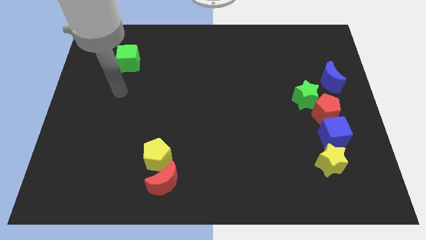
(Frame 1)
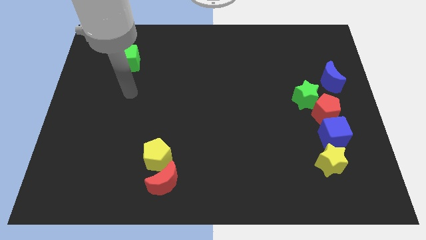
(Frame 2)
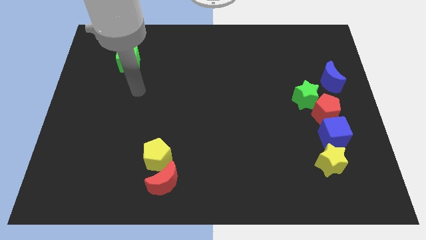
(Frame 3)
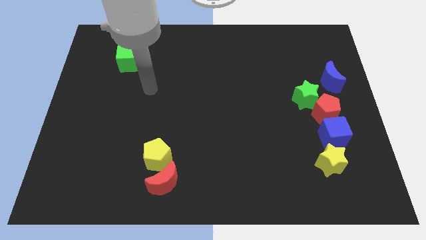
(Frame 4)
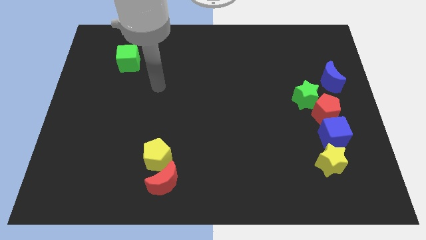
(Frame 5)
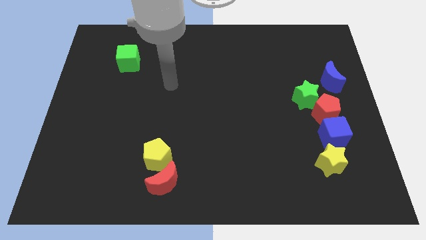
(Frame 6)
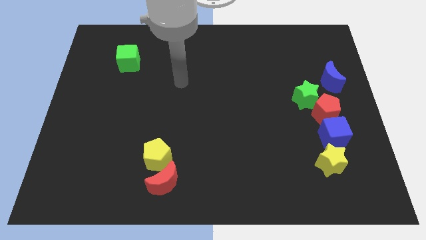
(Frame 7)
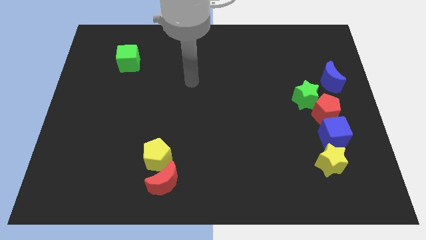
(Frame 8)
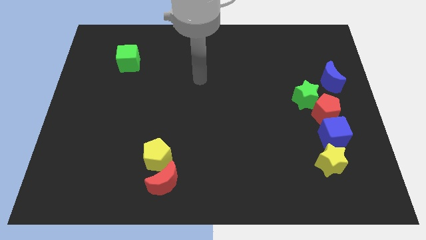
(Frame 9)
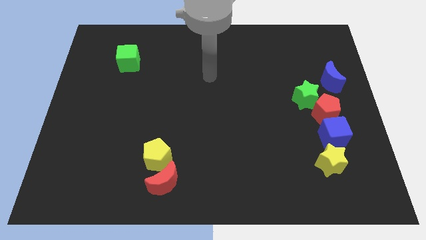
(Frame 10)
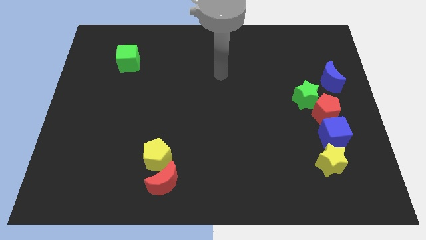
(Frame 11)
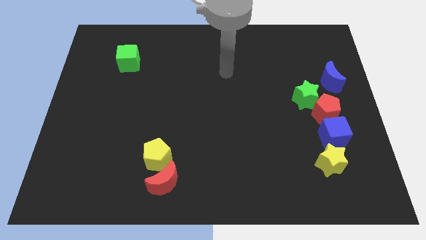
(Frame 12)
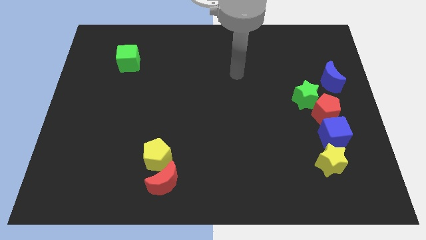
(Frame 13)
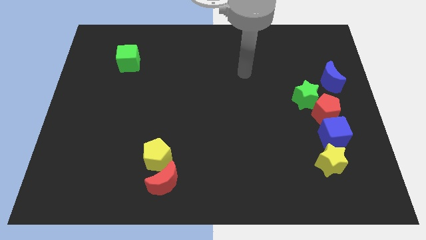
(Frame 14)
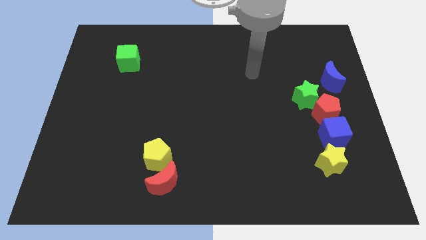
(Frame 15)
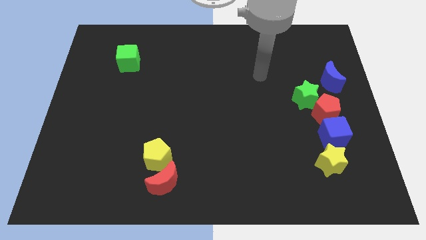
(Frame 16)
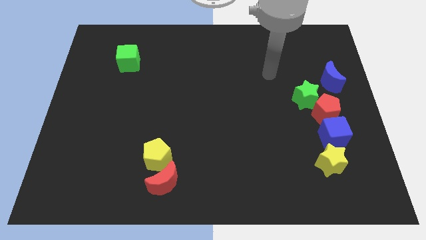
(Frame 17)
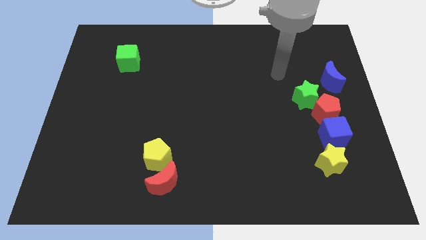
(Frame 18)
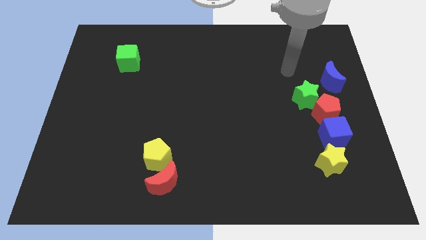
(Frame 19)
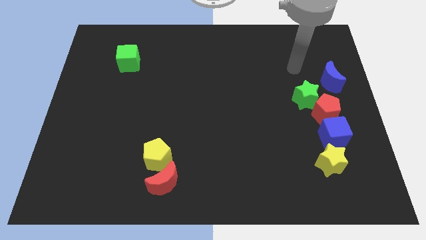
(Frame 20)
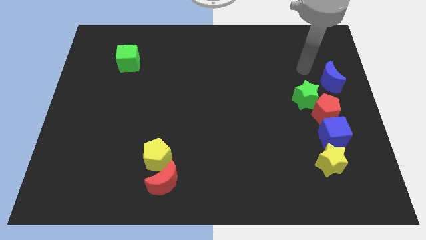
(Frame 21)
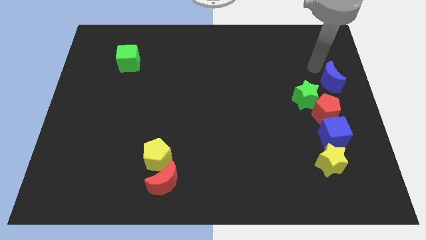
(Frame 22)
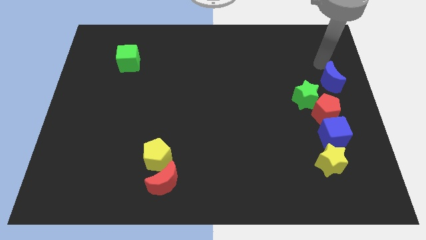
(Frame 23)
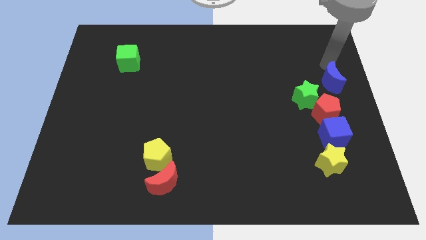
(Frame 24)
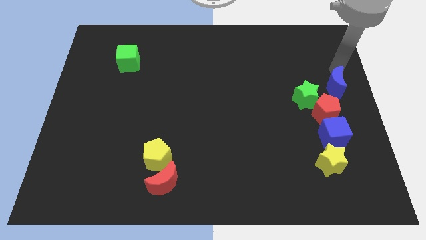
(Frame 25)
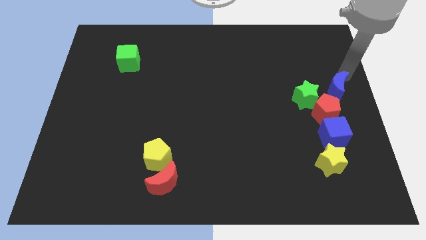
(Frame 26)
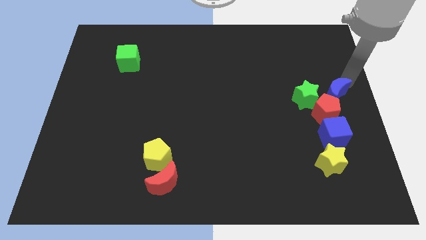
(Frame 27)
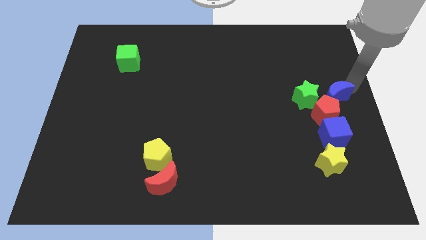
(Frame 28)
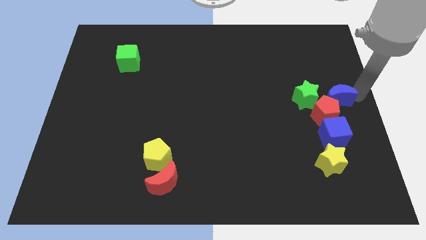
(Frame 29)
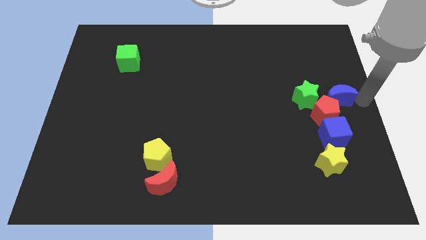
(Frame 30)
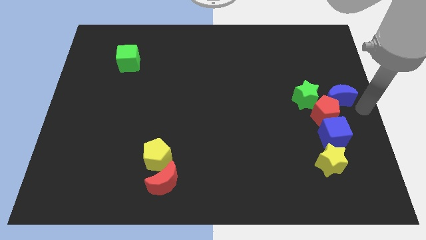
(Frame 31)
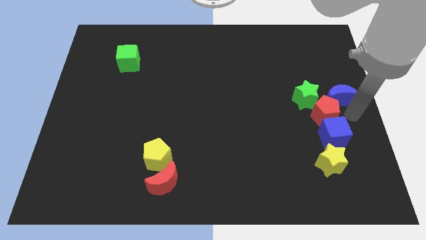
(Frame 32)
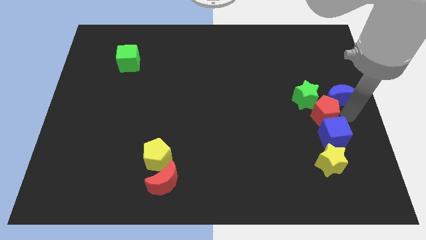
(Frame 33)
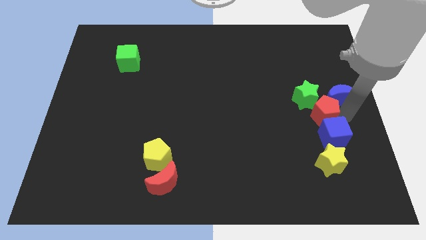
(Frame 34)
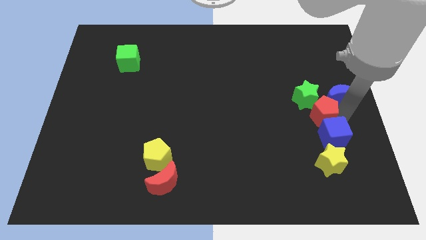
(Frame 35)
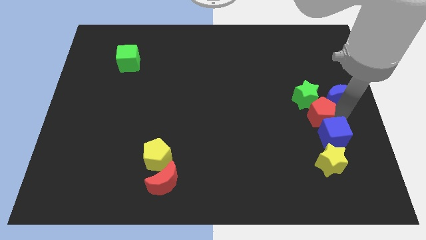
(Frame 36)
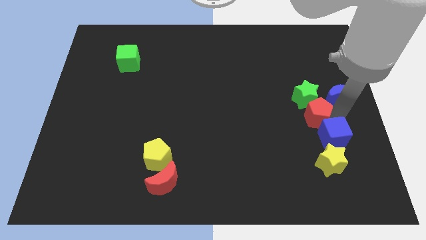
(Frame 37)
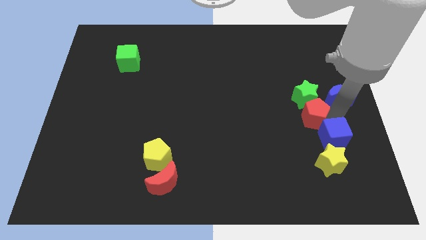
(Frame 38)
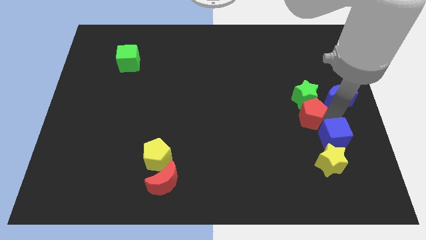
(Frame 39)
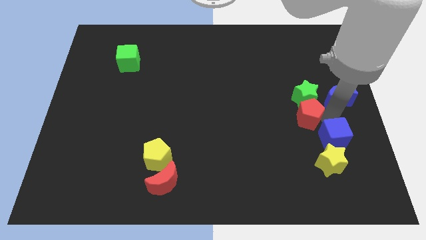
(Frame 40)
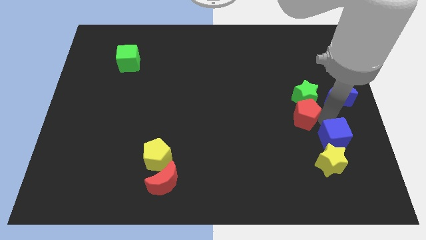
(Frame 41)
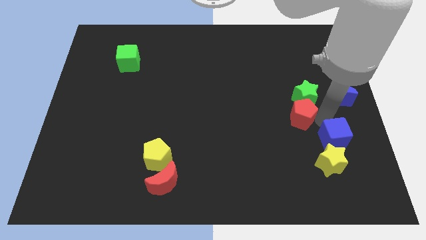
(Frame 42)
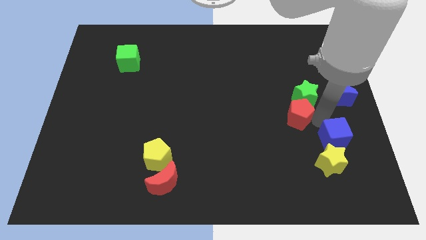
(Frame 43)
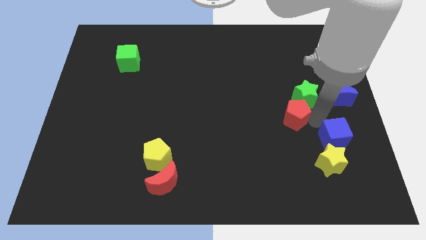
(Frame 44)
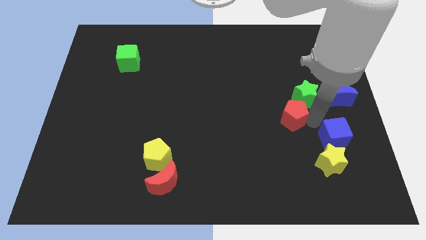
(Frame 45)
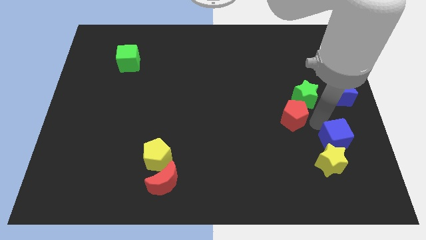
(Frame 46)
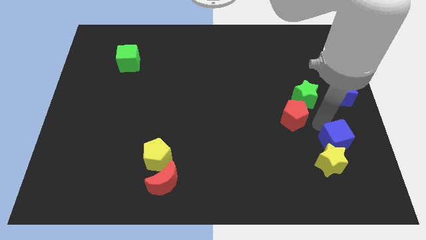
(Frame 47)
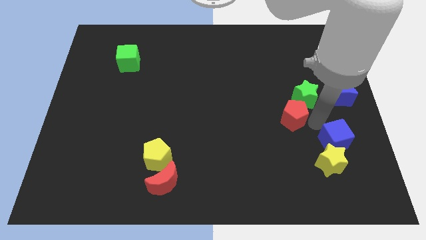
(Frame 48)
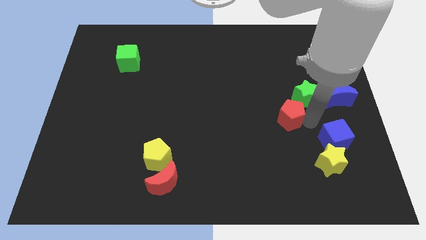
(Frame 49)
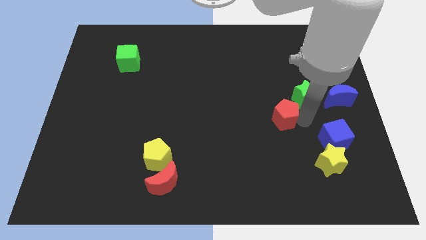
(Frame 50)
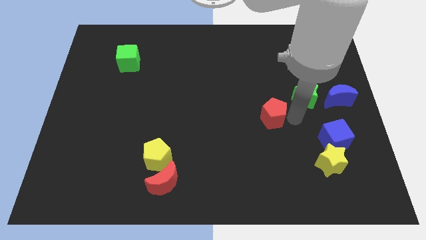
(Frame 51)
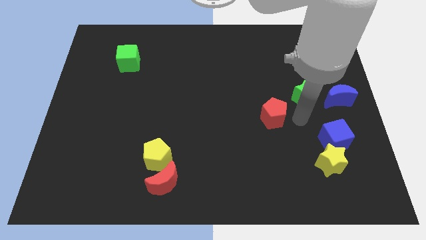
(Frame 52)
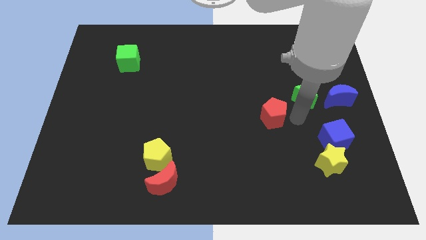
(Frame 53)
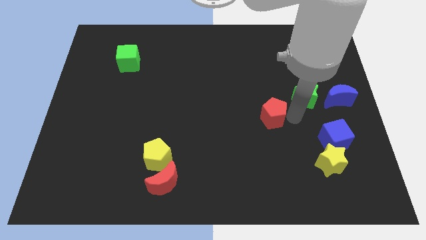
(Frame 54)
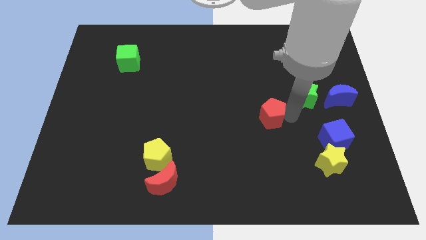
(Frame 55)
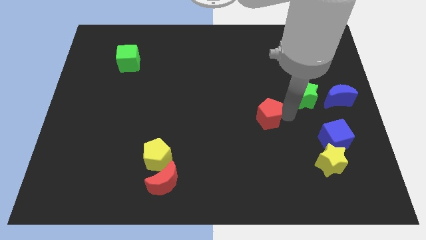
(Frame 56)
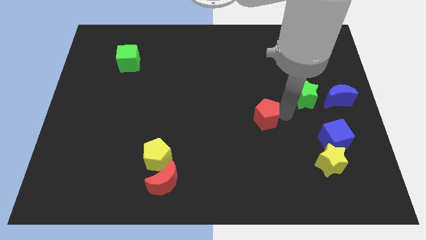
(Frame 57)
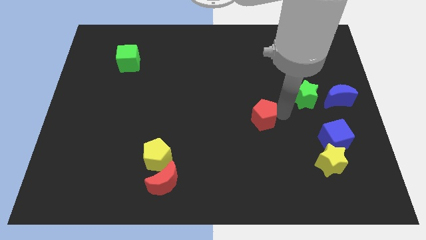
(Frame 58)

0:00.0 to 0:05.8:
push the red pentagon to the center of the board
